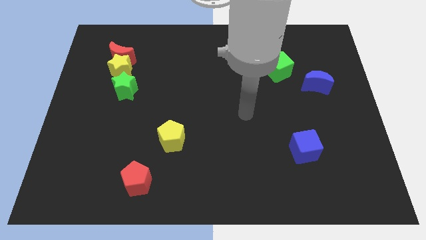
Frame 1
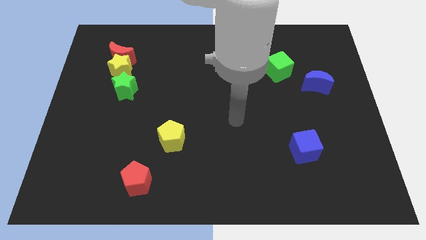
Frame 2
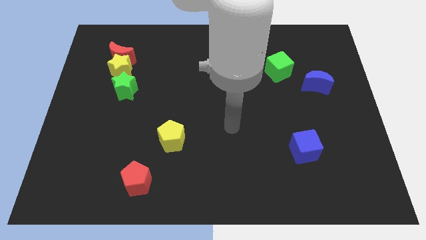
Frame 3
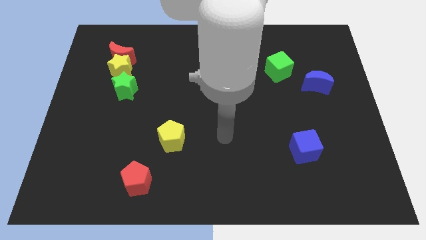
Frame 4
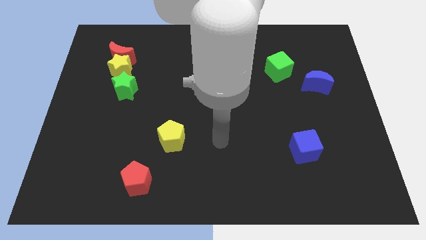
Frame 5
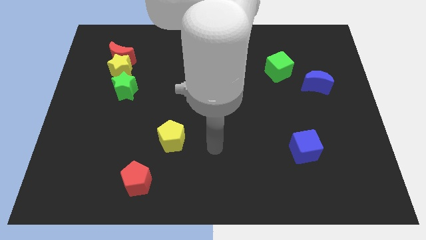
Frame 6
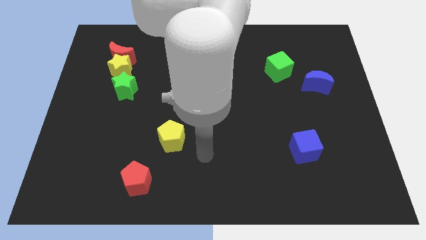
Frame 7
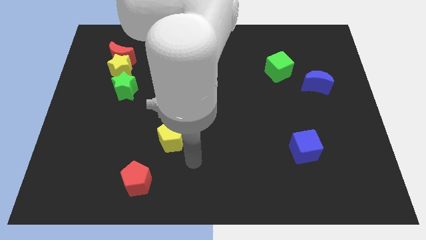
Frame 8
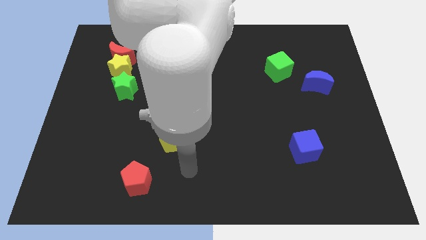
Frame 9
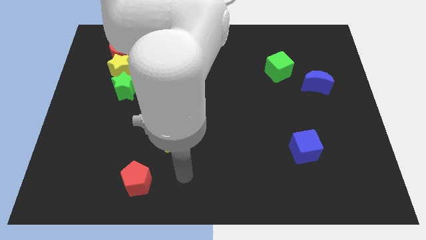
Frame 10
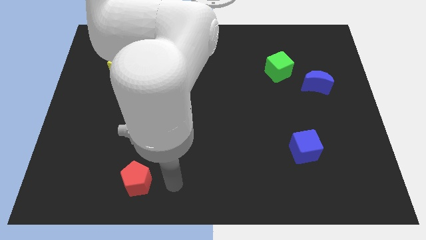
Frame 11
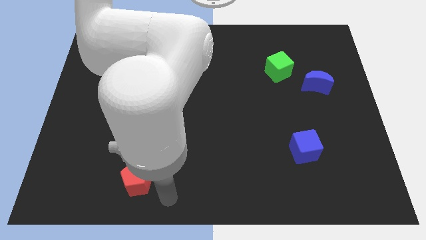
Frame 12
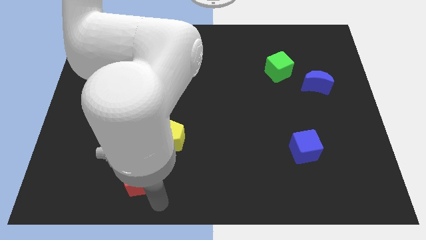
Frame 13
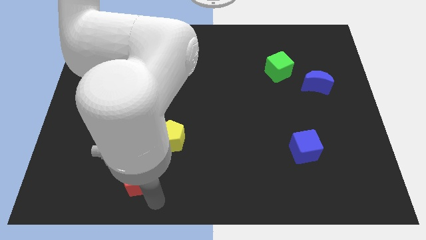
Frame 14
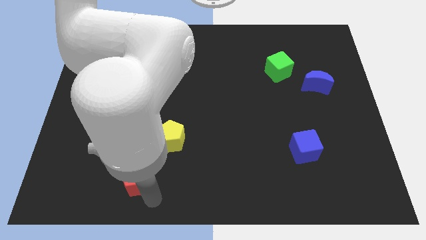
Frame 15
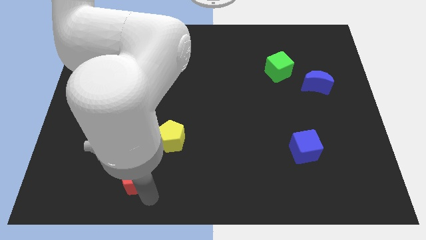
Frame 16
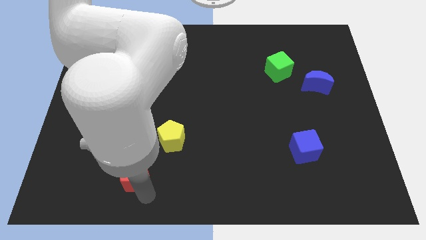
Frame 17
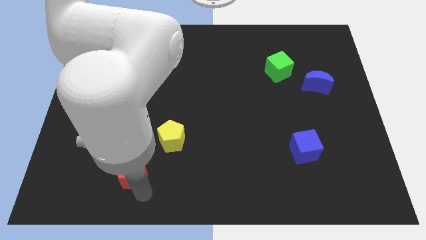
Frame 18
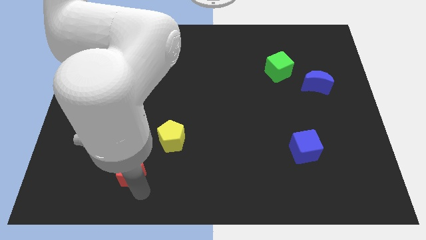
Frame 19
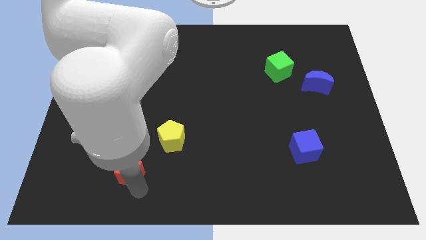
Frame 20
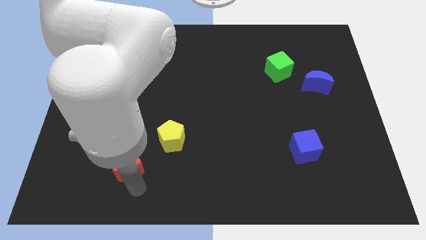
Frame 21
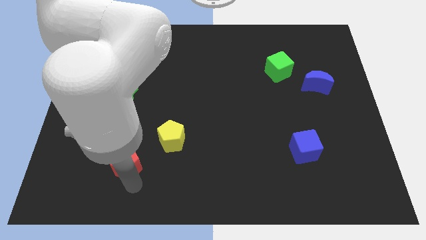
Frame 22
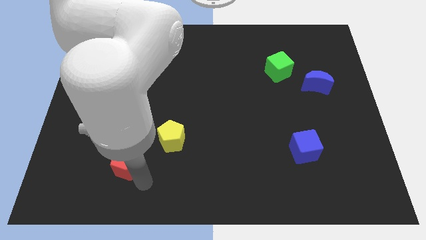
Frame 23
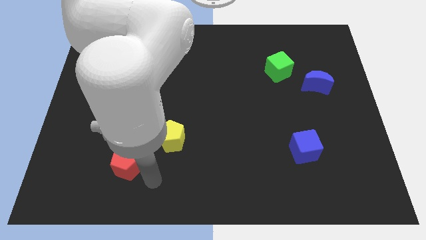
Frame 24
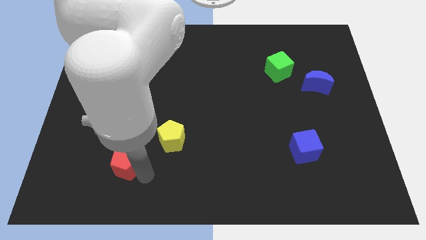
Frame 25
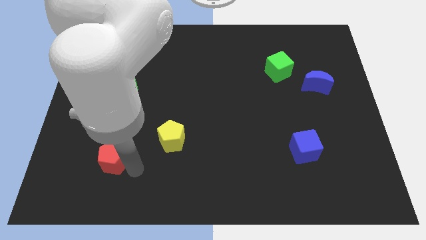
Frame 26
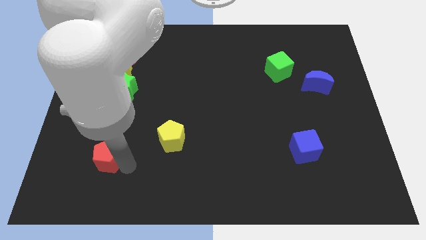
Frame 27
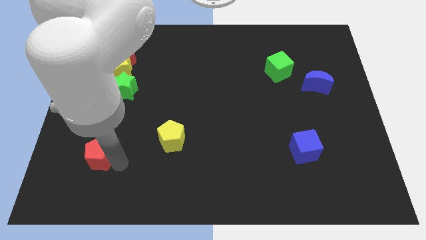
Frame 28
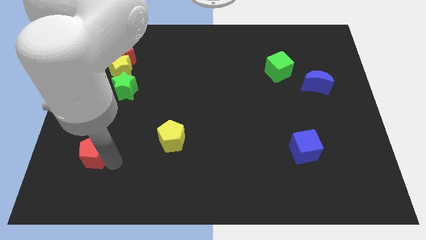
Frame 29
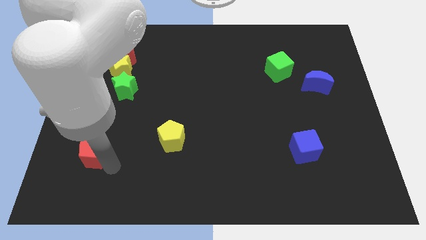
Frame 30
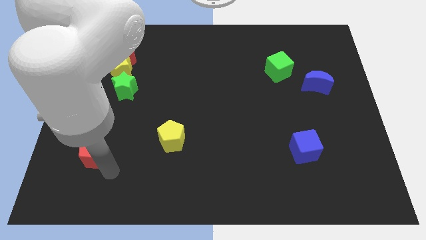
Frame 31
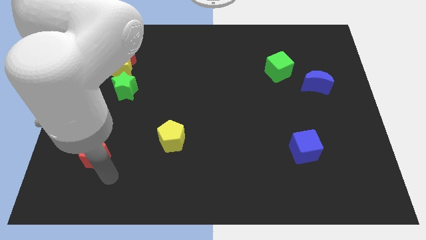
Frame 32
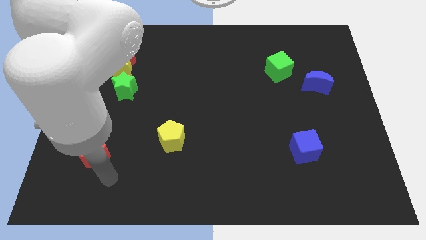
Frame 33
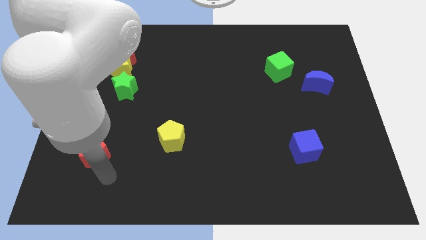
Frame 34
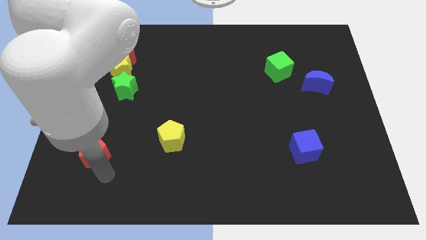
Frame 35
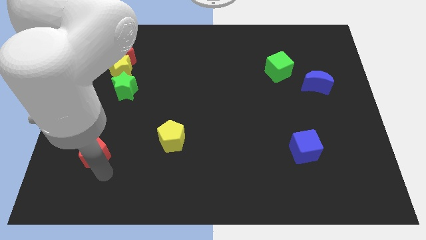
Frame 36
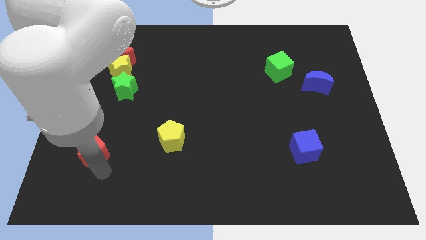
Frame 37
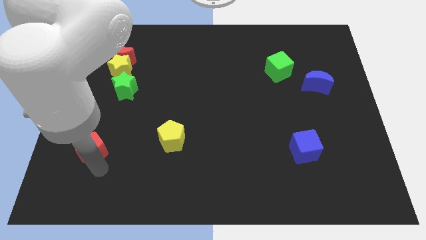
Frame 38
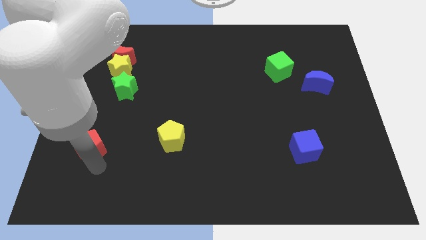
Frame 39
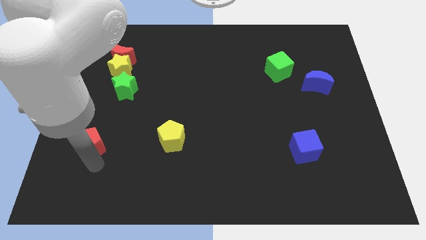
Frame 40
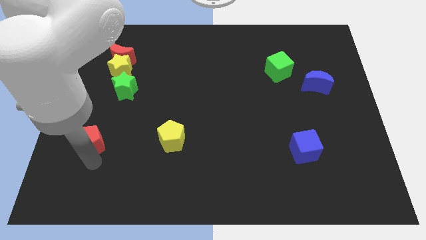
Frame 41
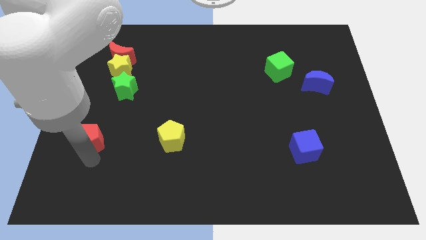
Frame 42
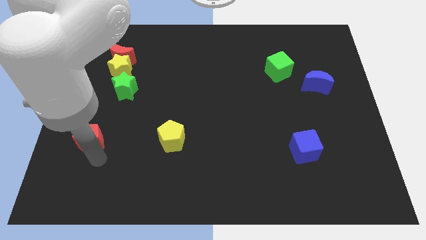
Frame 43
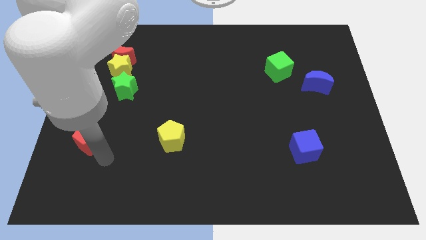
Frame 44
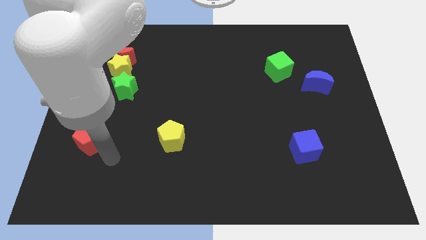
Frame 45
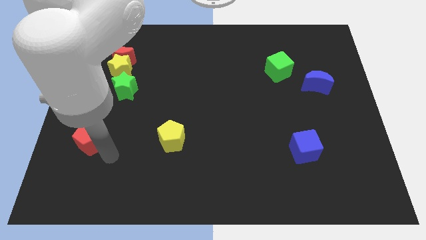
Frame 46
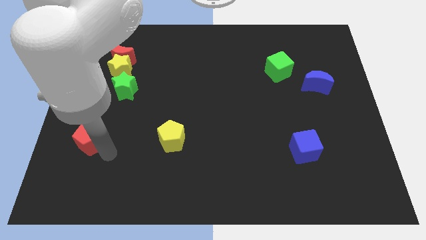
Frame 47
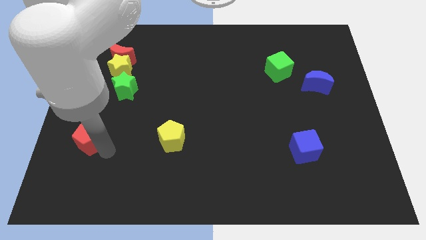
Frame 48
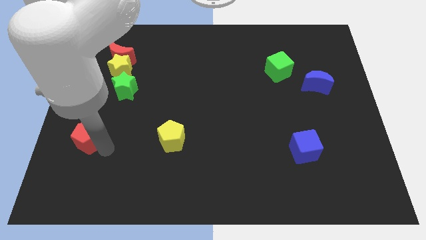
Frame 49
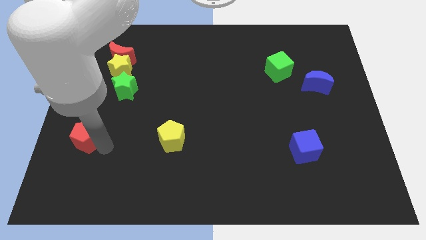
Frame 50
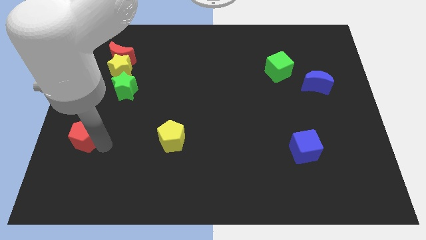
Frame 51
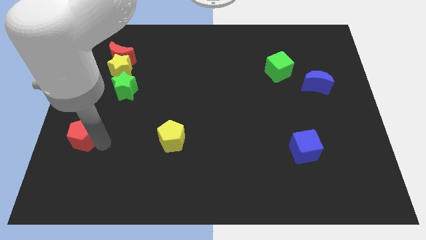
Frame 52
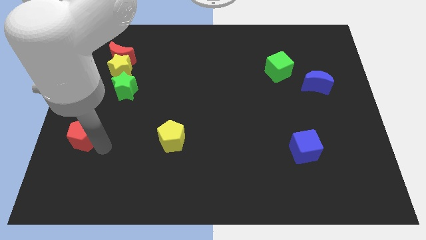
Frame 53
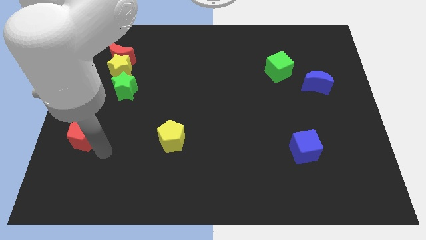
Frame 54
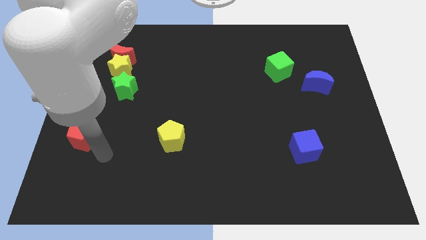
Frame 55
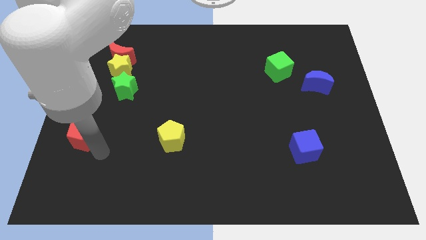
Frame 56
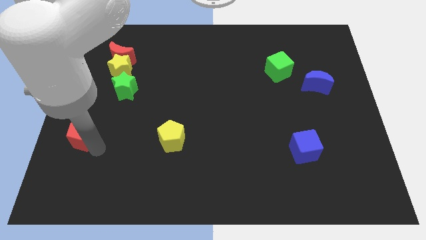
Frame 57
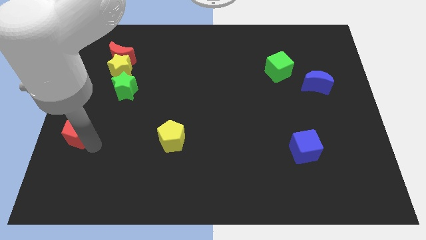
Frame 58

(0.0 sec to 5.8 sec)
slide the red pentagon to the left side
